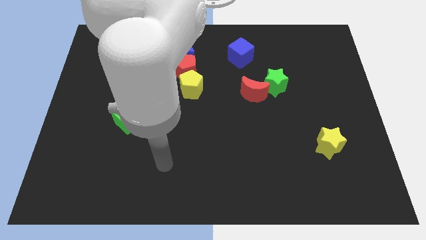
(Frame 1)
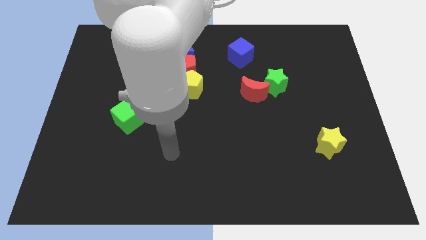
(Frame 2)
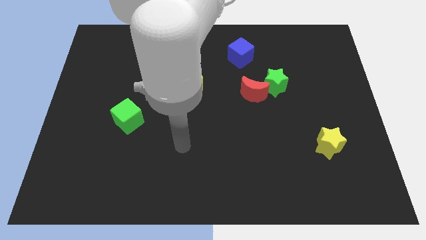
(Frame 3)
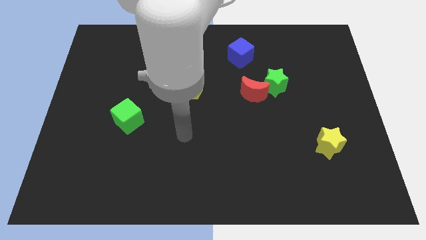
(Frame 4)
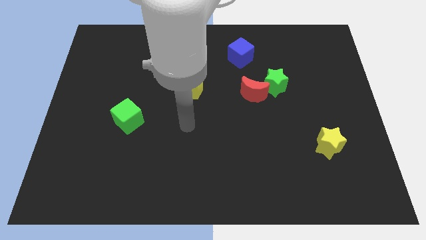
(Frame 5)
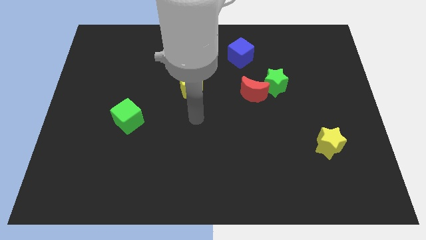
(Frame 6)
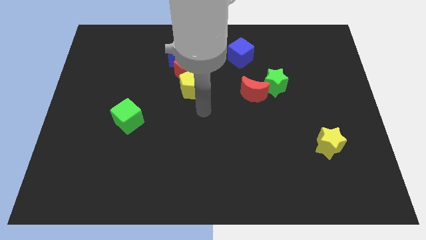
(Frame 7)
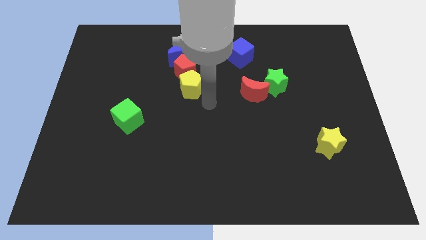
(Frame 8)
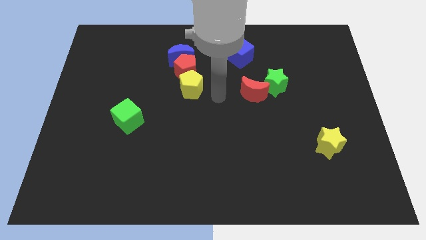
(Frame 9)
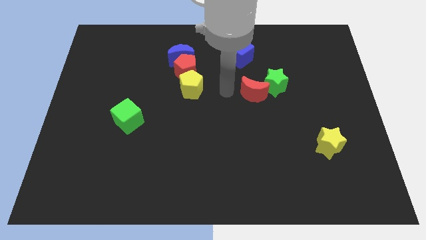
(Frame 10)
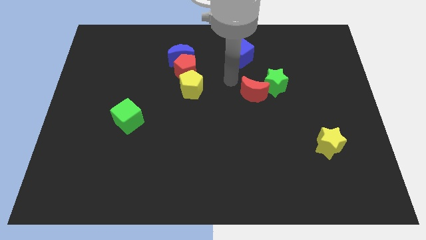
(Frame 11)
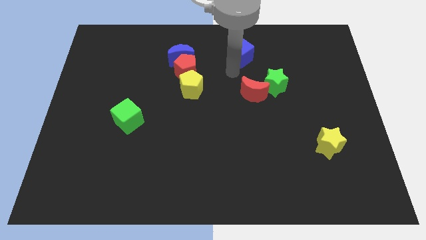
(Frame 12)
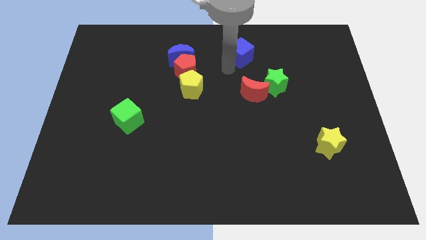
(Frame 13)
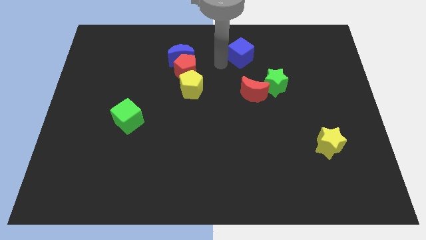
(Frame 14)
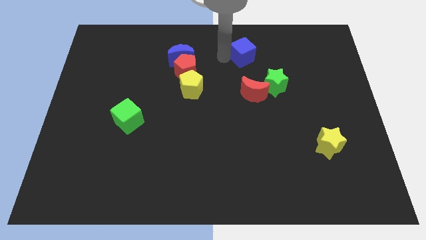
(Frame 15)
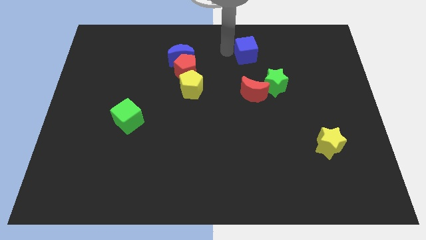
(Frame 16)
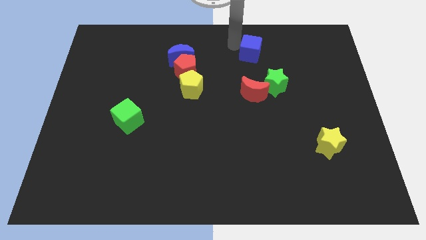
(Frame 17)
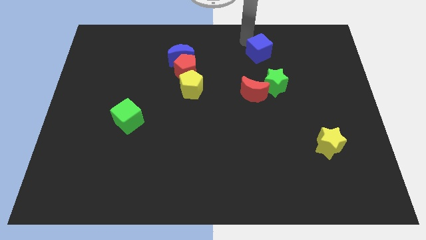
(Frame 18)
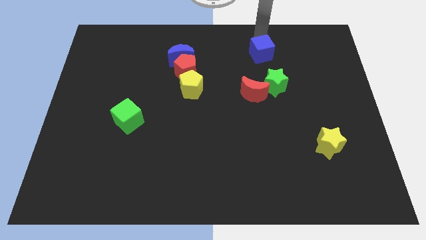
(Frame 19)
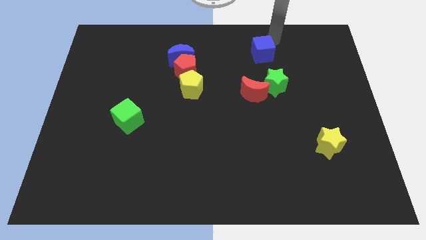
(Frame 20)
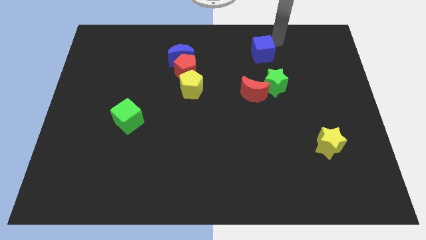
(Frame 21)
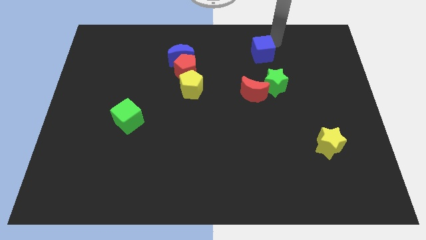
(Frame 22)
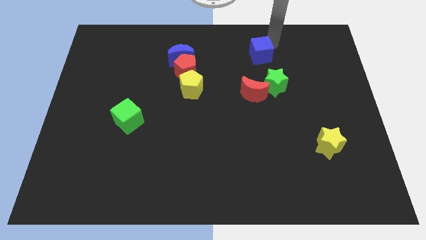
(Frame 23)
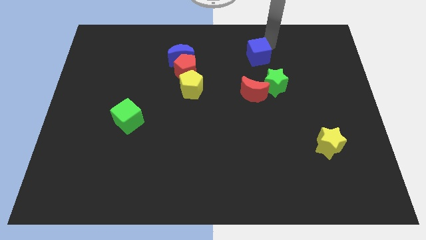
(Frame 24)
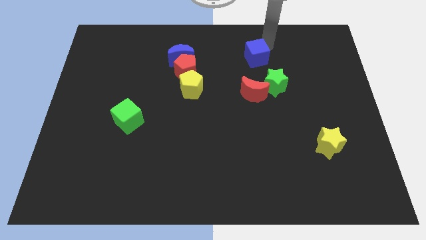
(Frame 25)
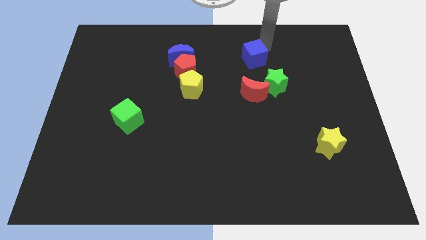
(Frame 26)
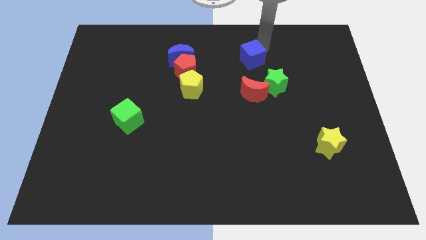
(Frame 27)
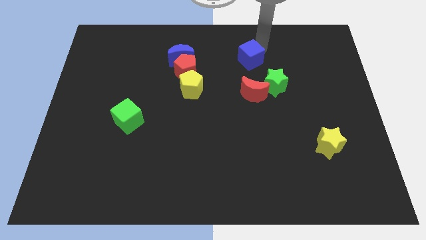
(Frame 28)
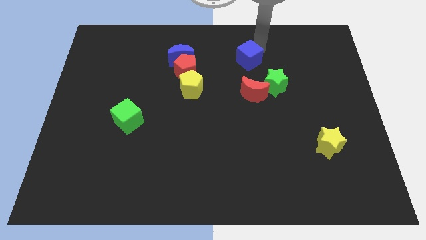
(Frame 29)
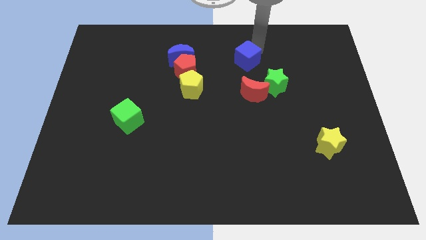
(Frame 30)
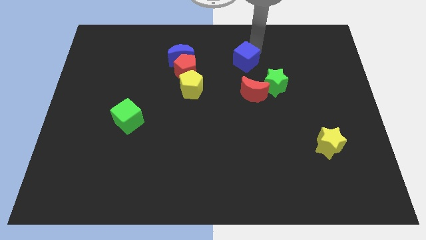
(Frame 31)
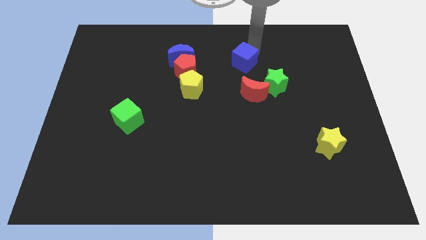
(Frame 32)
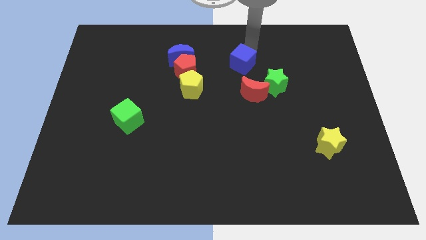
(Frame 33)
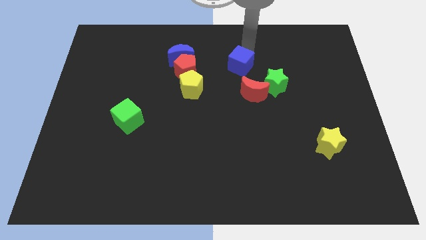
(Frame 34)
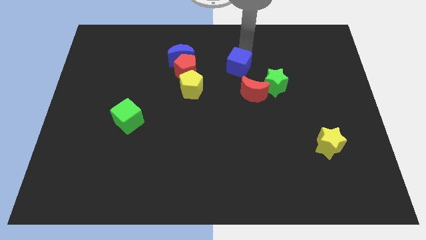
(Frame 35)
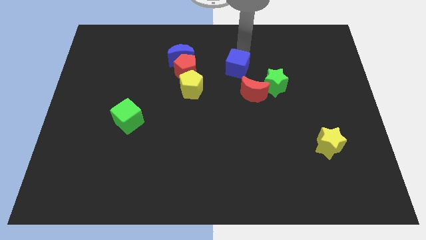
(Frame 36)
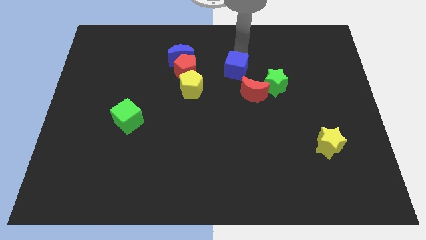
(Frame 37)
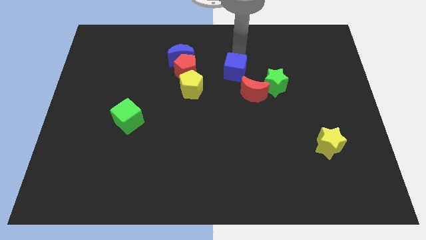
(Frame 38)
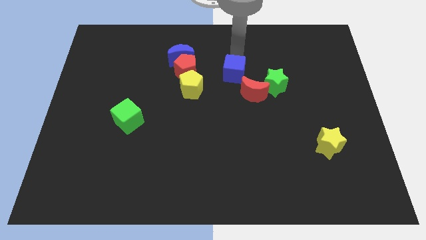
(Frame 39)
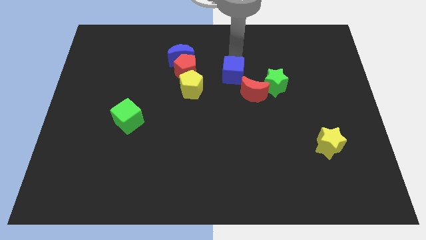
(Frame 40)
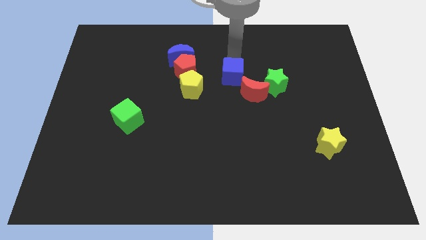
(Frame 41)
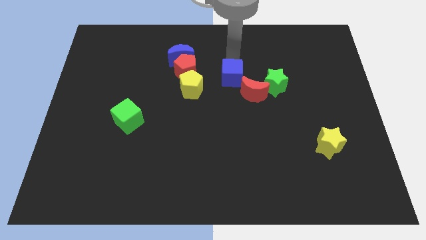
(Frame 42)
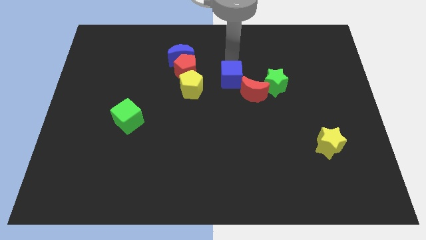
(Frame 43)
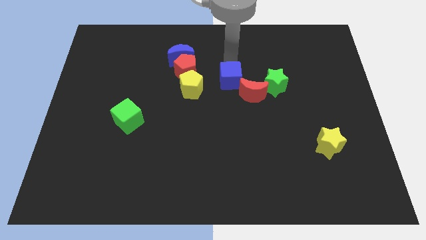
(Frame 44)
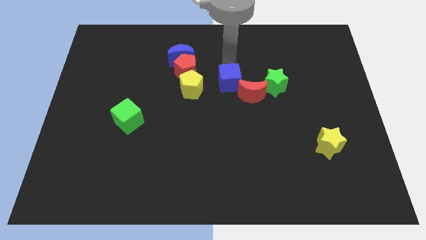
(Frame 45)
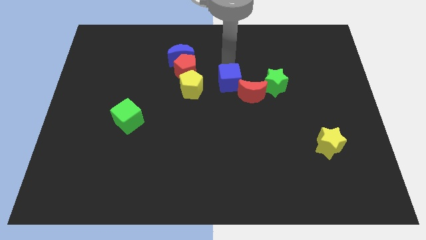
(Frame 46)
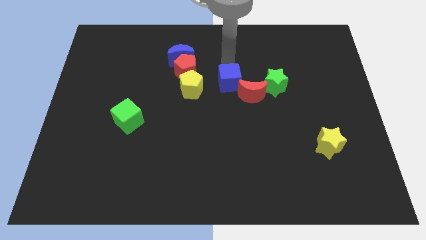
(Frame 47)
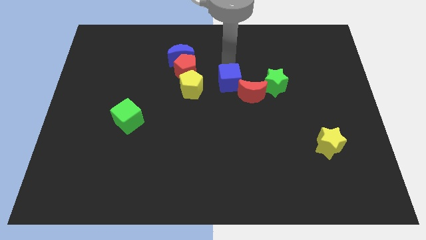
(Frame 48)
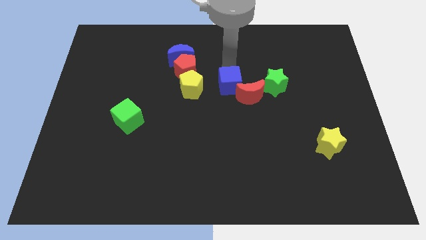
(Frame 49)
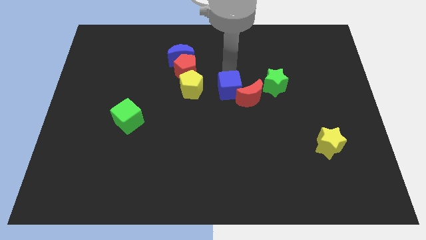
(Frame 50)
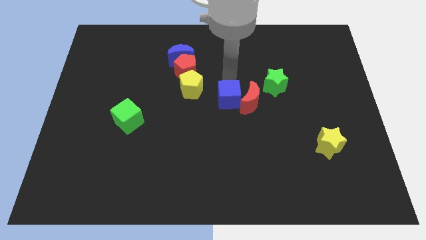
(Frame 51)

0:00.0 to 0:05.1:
move the blue cube to the bottom left of the red moon

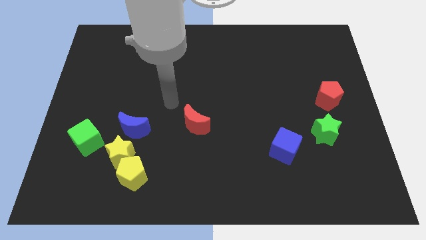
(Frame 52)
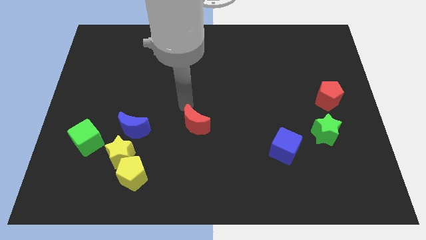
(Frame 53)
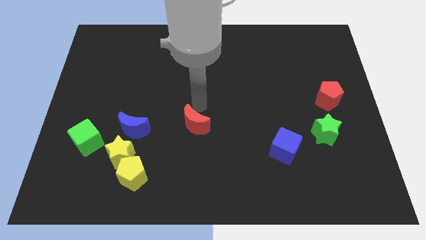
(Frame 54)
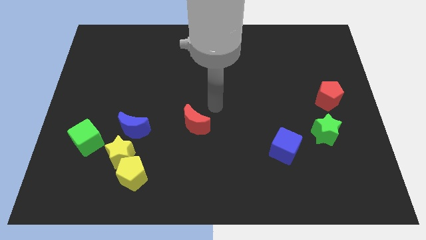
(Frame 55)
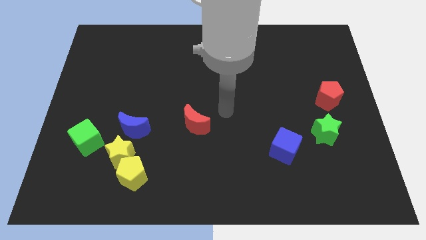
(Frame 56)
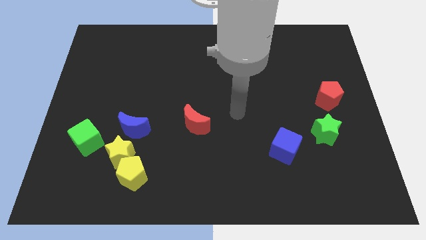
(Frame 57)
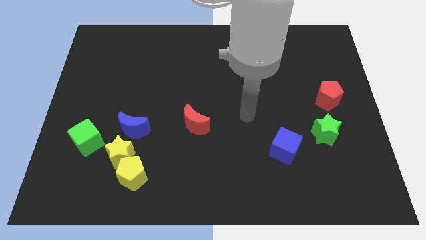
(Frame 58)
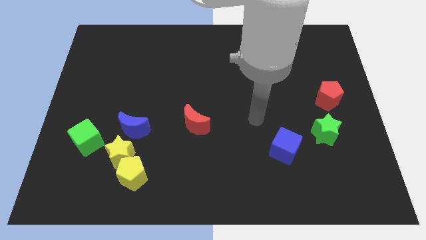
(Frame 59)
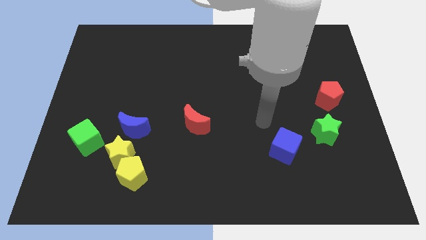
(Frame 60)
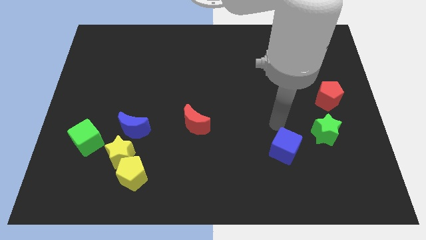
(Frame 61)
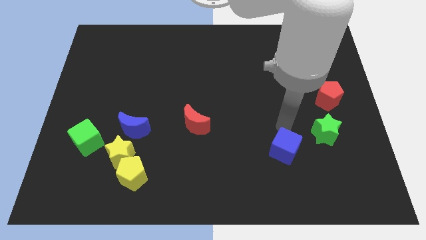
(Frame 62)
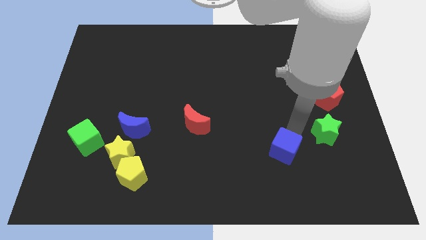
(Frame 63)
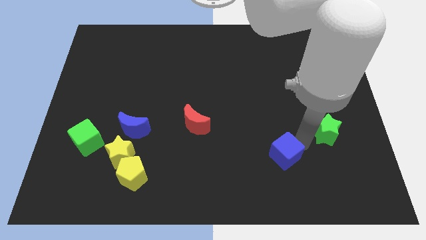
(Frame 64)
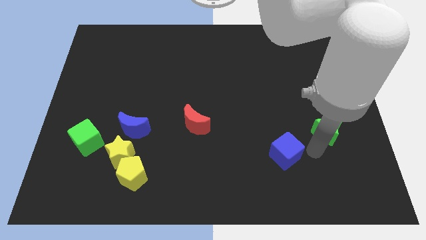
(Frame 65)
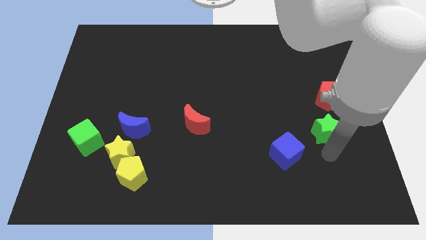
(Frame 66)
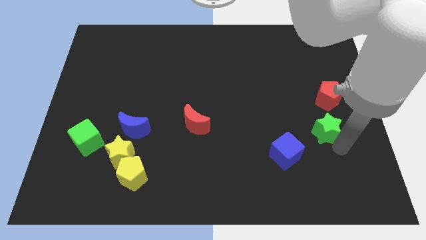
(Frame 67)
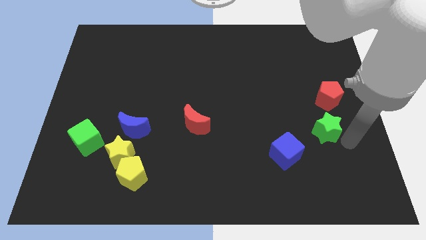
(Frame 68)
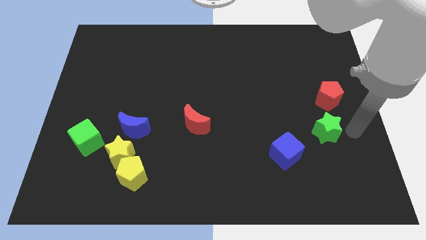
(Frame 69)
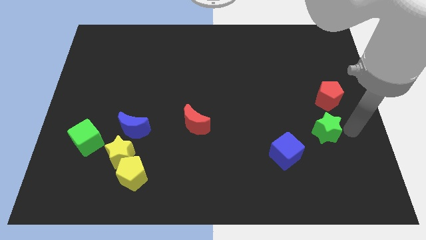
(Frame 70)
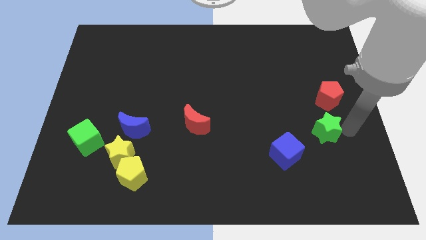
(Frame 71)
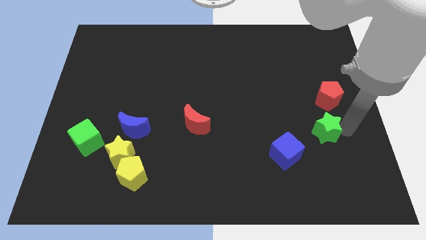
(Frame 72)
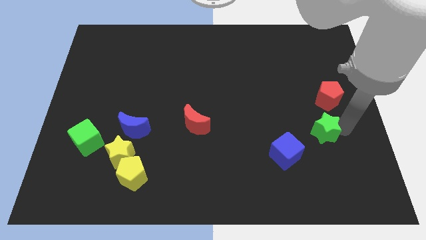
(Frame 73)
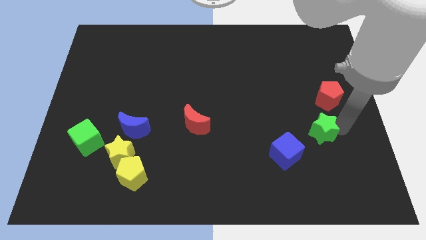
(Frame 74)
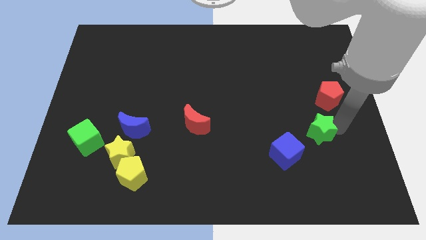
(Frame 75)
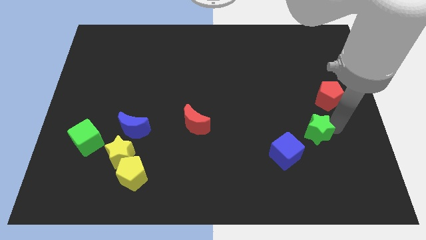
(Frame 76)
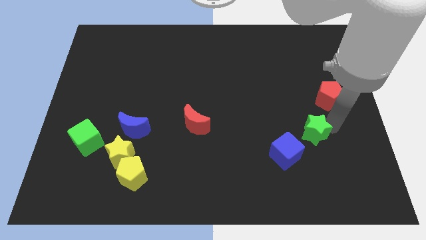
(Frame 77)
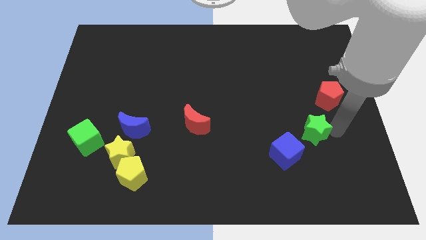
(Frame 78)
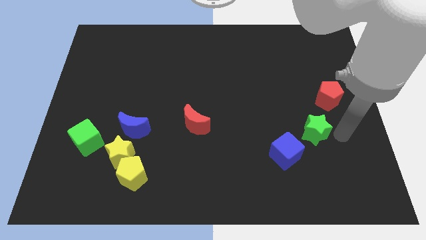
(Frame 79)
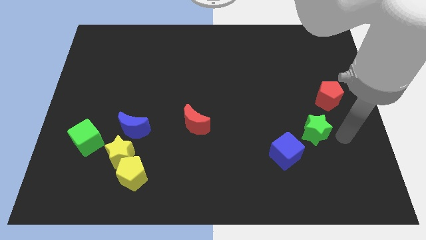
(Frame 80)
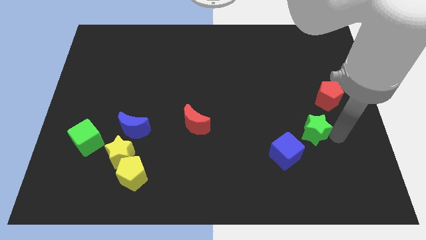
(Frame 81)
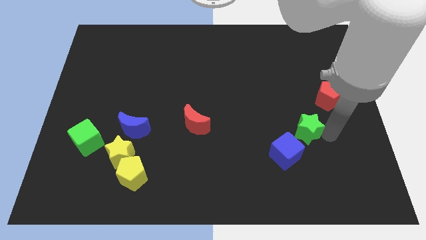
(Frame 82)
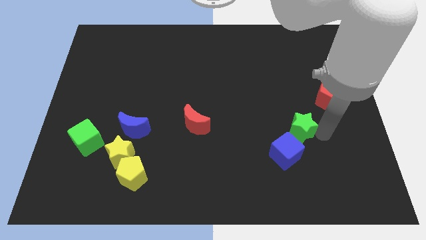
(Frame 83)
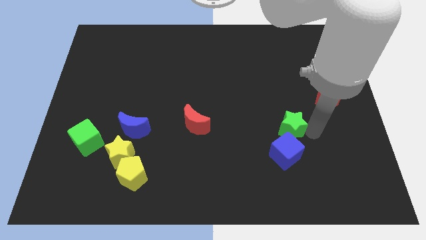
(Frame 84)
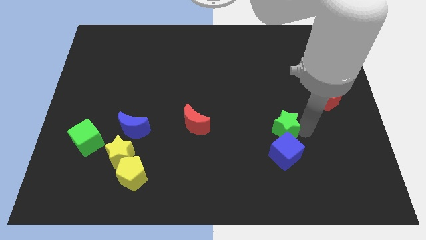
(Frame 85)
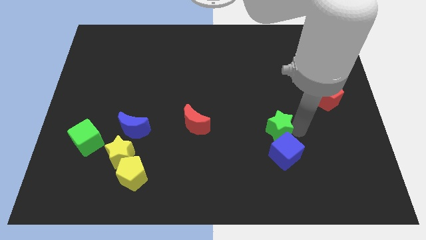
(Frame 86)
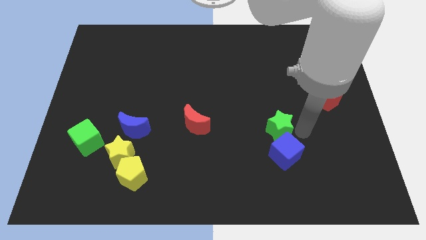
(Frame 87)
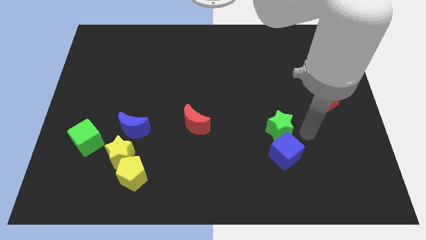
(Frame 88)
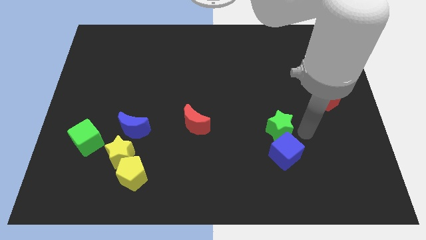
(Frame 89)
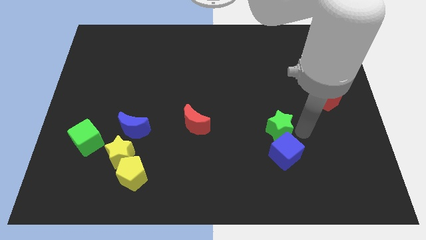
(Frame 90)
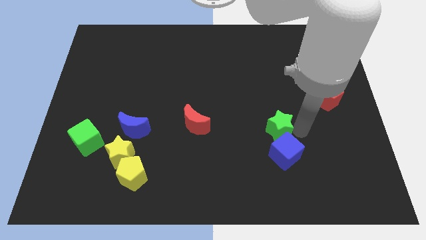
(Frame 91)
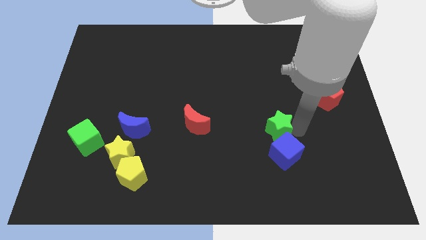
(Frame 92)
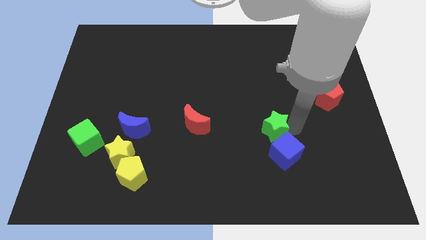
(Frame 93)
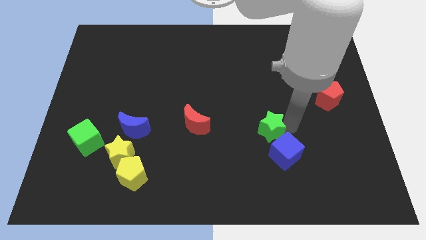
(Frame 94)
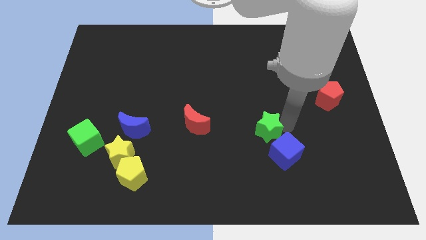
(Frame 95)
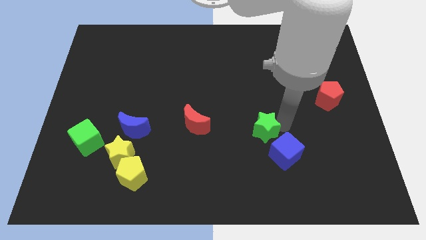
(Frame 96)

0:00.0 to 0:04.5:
move the green star to the right of the red moon
